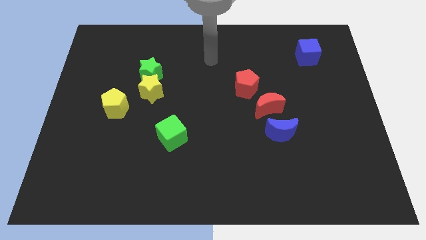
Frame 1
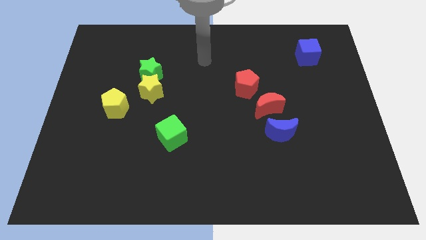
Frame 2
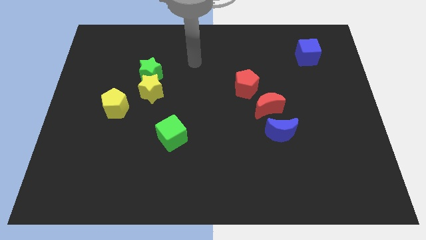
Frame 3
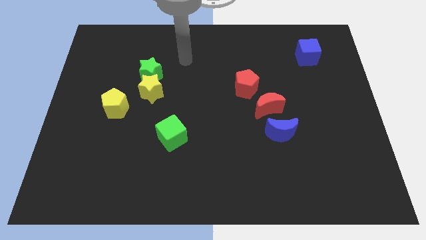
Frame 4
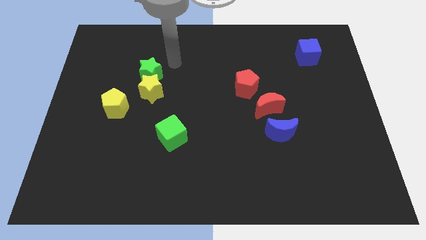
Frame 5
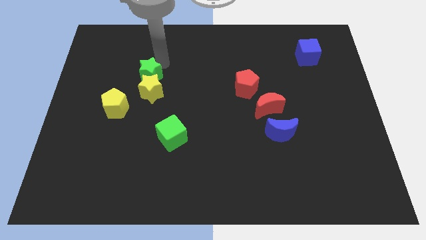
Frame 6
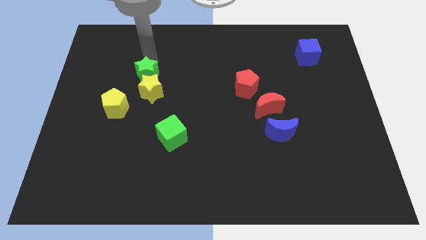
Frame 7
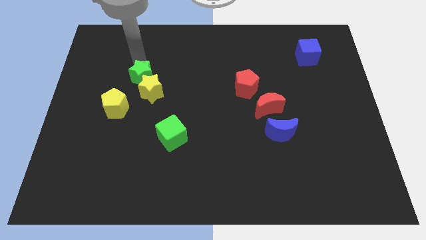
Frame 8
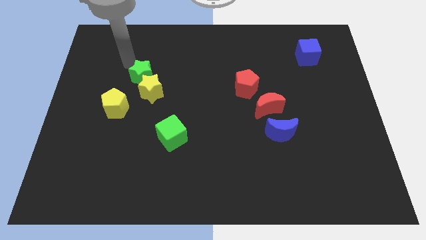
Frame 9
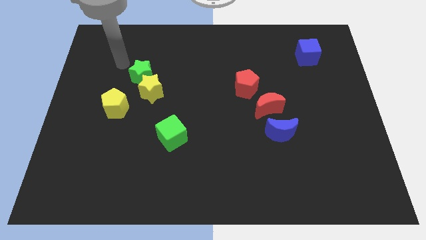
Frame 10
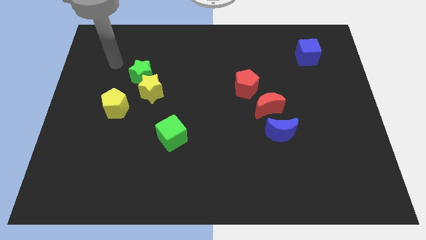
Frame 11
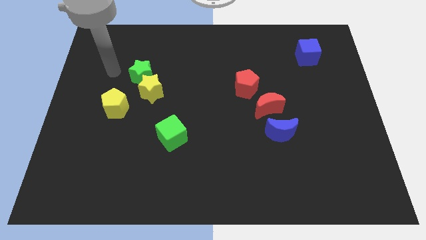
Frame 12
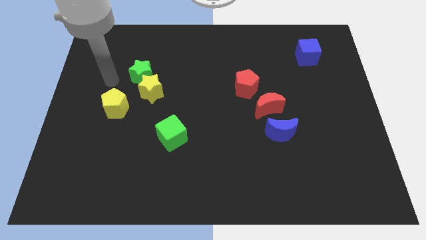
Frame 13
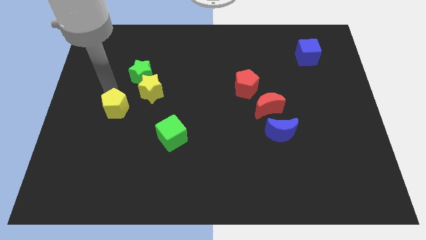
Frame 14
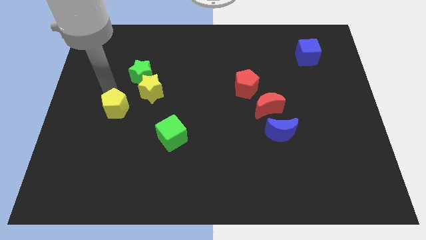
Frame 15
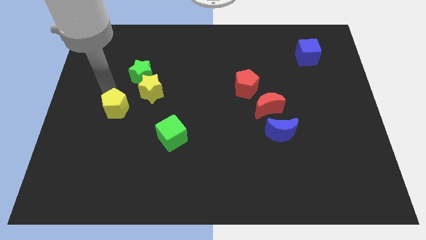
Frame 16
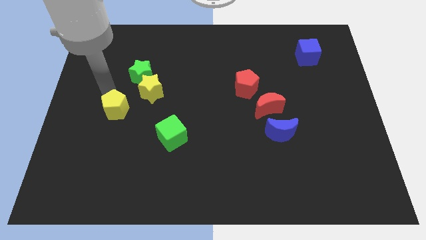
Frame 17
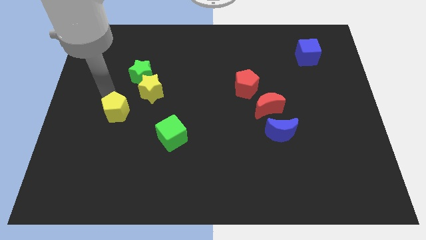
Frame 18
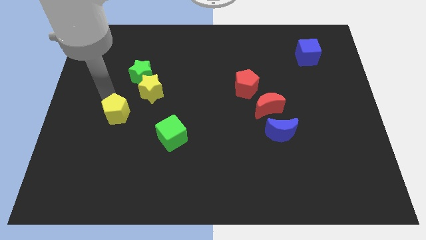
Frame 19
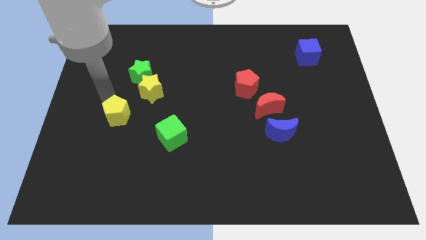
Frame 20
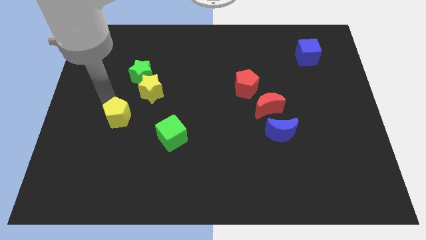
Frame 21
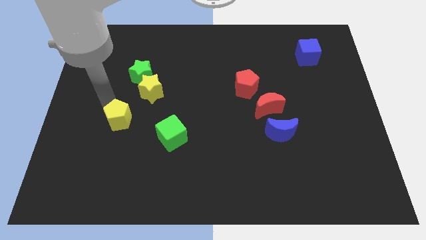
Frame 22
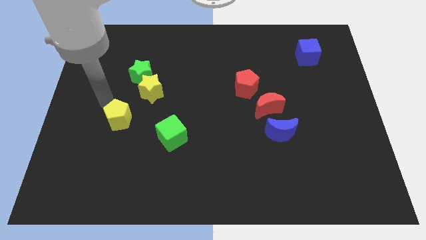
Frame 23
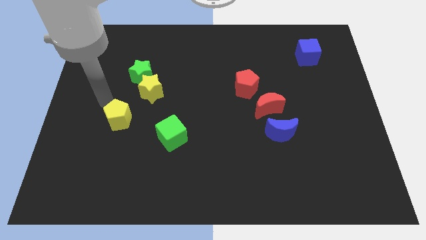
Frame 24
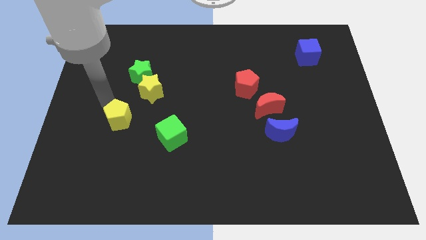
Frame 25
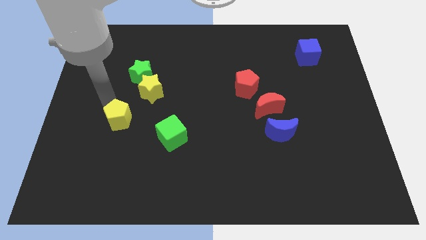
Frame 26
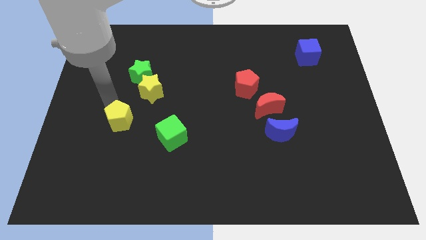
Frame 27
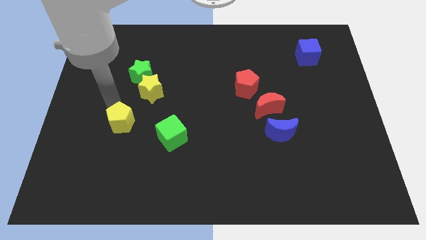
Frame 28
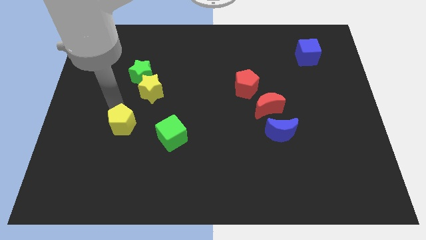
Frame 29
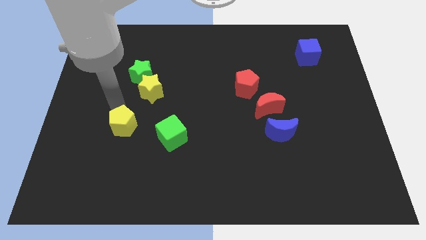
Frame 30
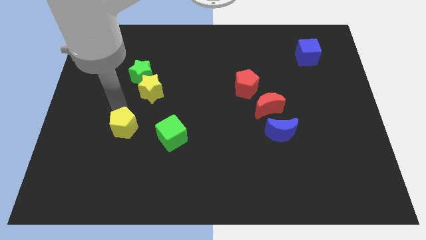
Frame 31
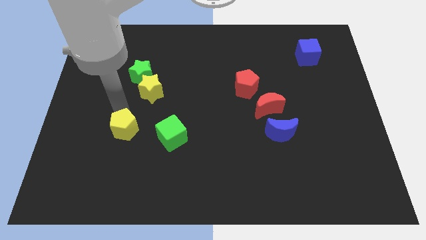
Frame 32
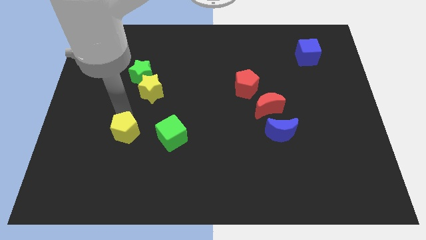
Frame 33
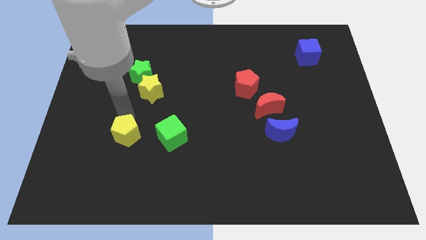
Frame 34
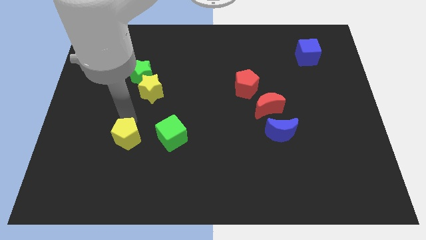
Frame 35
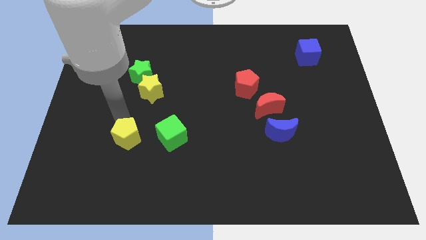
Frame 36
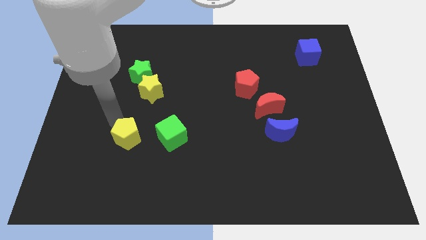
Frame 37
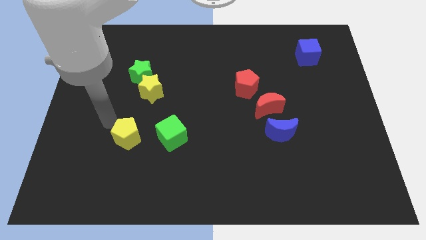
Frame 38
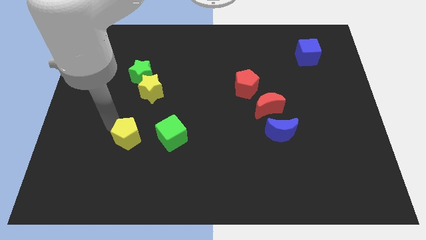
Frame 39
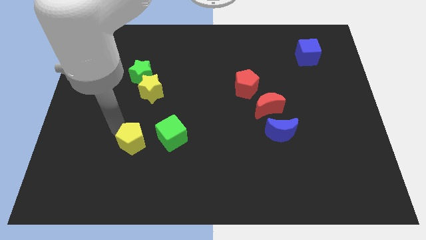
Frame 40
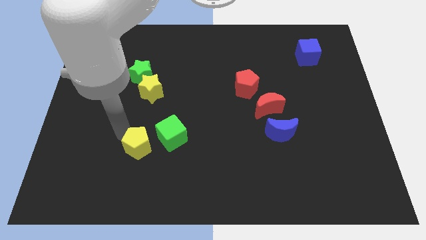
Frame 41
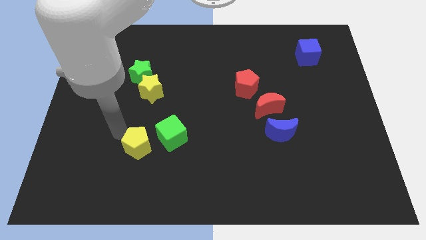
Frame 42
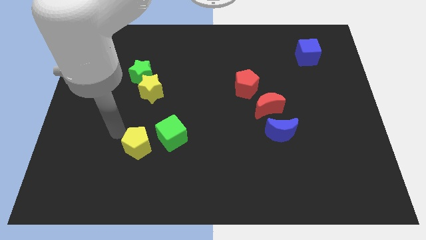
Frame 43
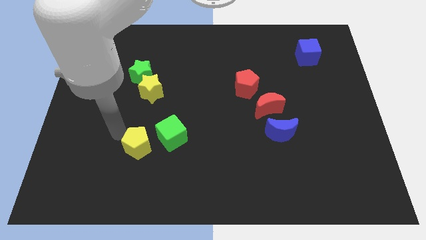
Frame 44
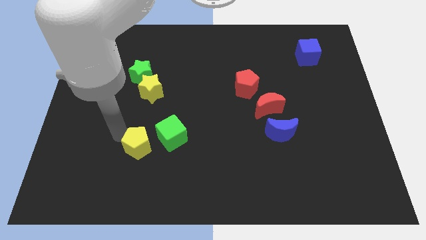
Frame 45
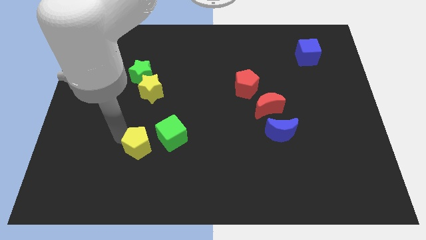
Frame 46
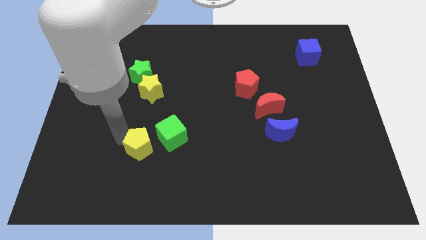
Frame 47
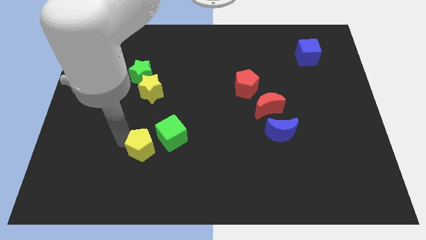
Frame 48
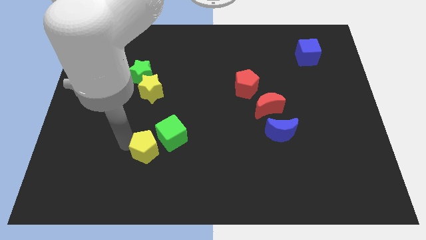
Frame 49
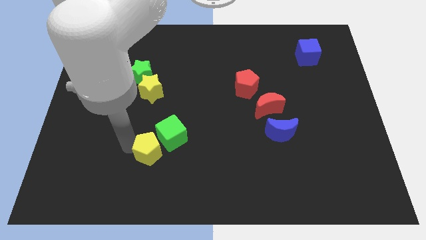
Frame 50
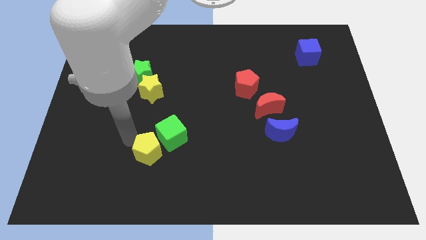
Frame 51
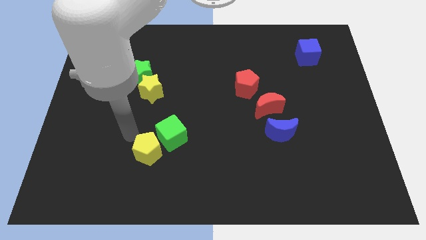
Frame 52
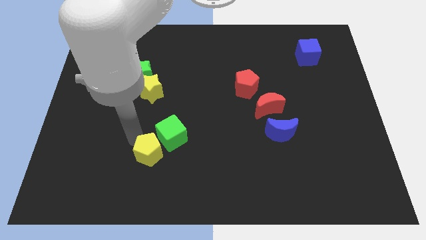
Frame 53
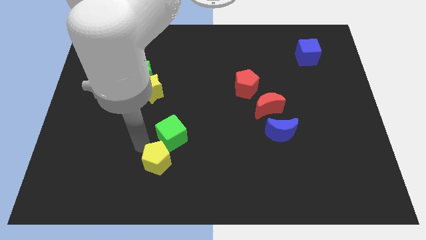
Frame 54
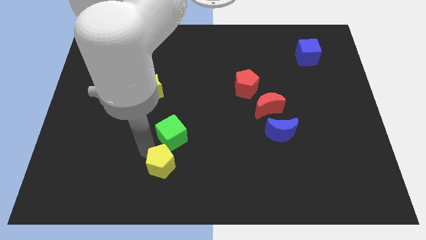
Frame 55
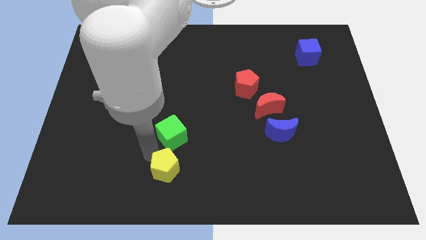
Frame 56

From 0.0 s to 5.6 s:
push the yellow pentagon to the bottom side

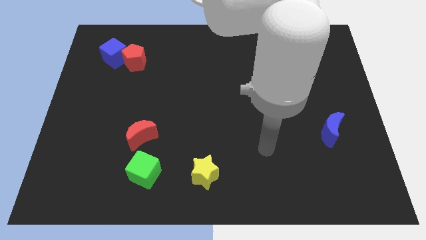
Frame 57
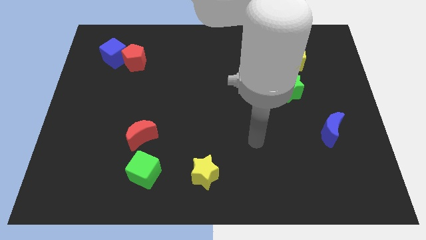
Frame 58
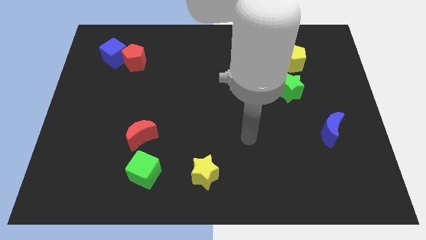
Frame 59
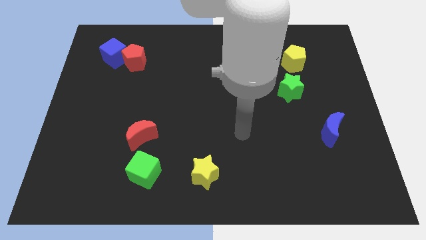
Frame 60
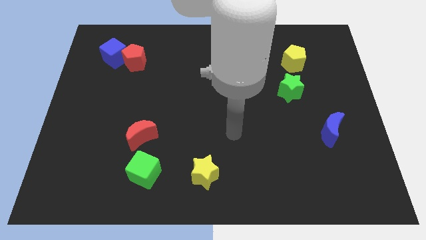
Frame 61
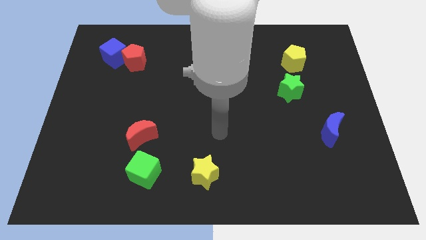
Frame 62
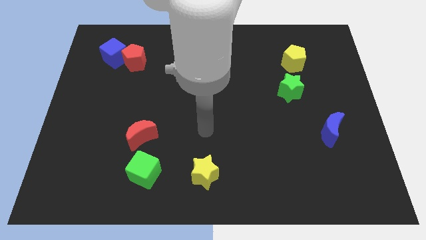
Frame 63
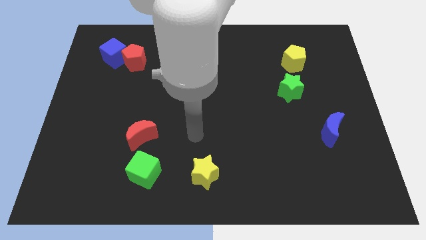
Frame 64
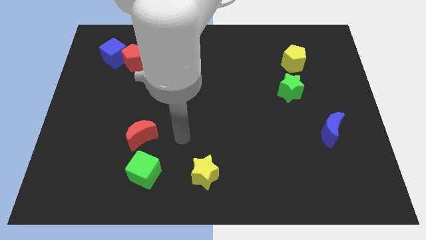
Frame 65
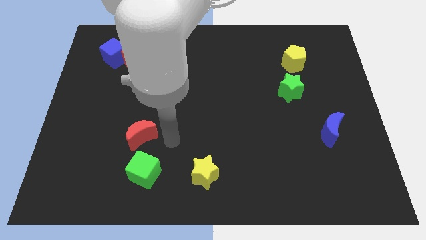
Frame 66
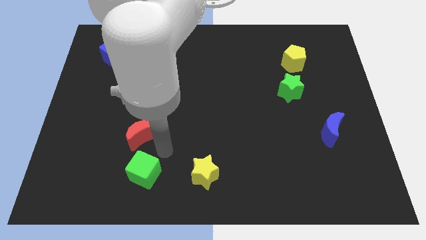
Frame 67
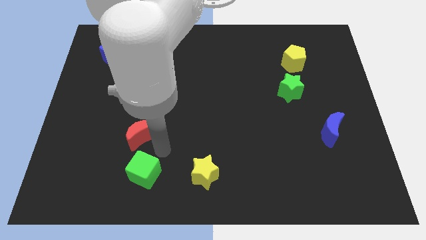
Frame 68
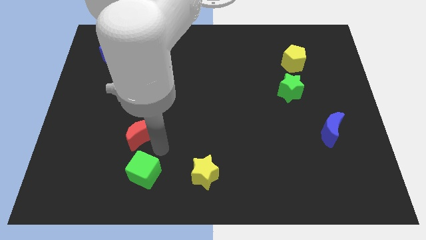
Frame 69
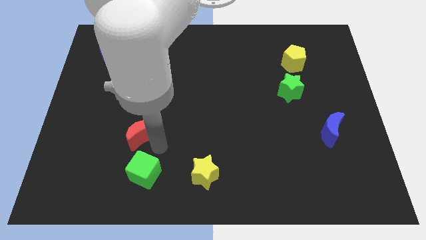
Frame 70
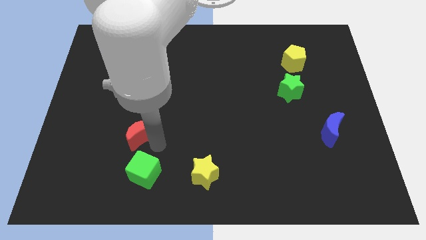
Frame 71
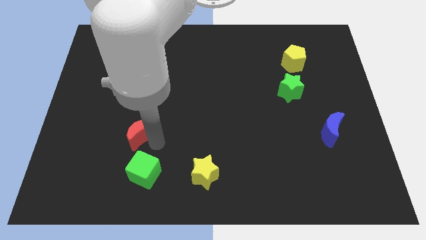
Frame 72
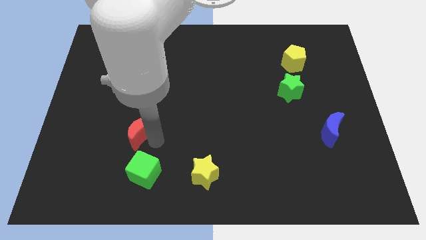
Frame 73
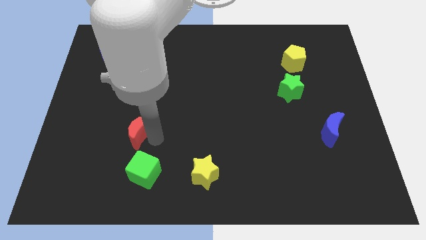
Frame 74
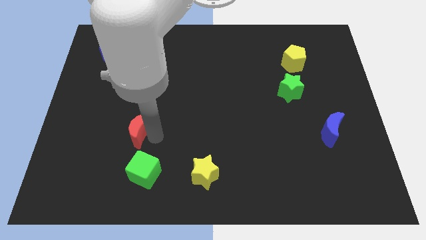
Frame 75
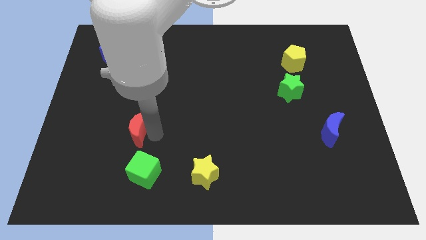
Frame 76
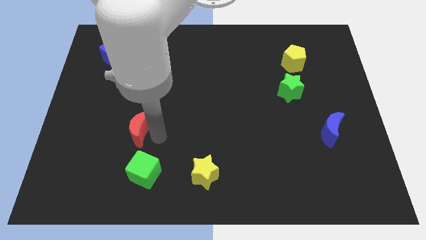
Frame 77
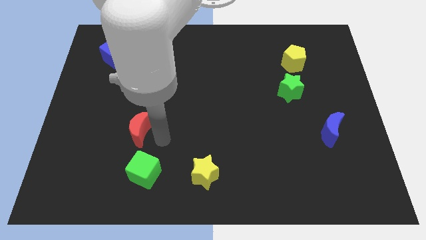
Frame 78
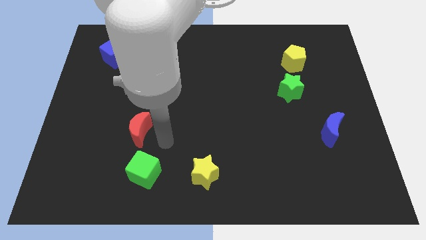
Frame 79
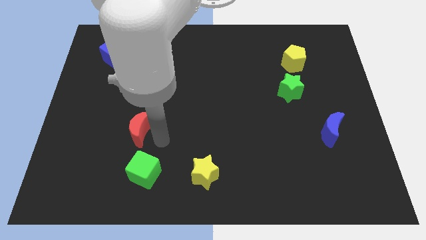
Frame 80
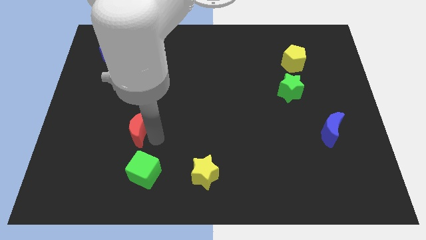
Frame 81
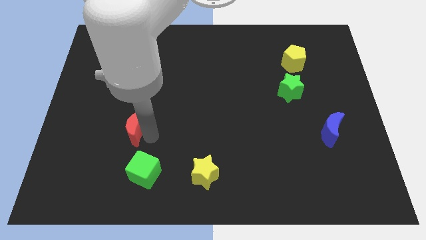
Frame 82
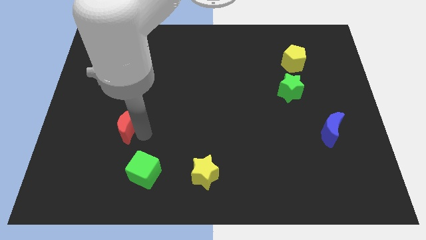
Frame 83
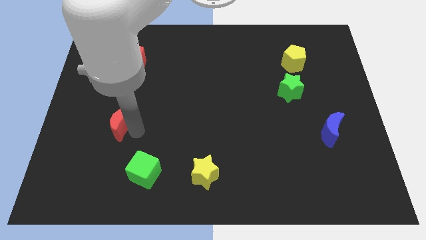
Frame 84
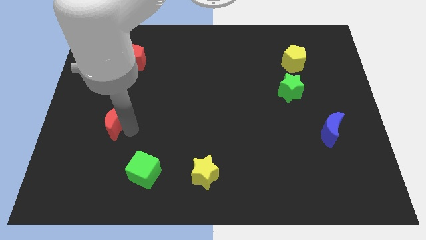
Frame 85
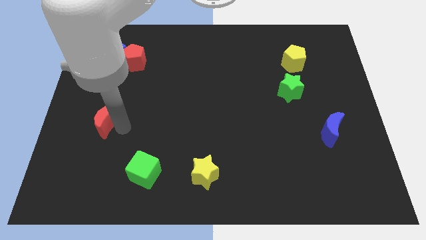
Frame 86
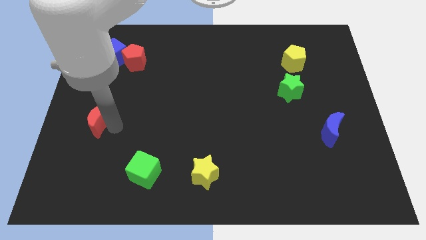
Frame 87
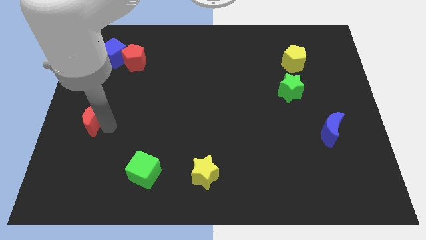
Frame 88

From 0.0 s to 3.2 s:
slide the red moon to the left side of the board
